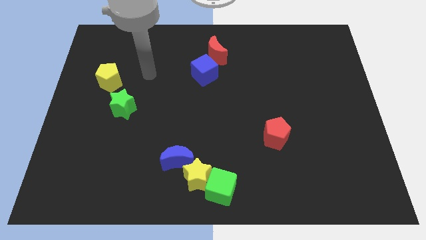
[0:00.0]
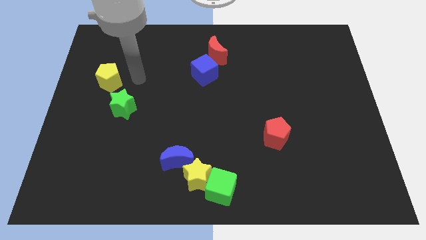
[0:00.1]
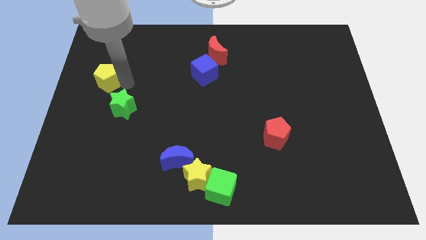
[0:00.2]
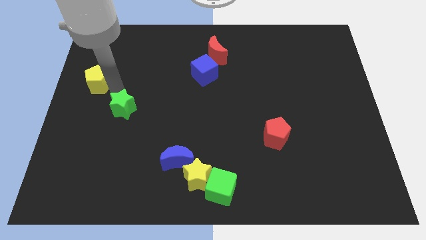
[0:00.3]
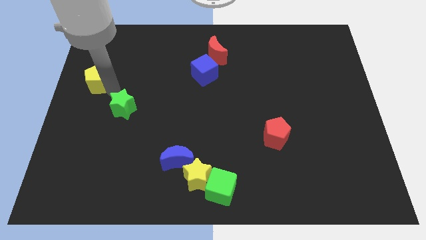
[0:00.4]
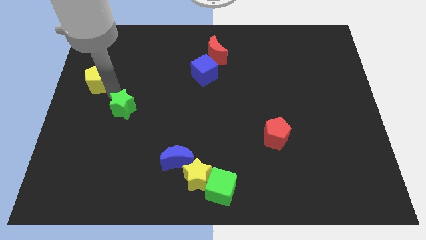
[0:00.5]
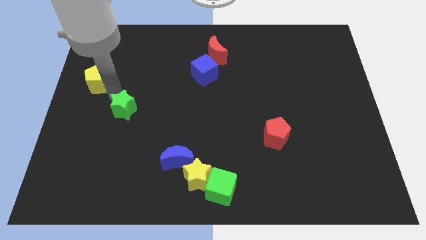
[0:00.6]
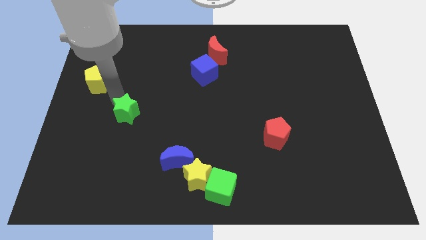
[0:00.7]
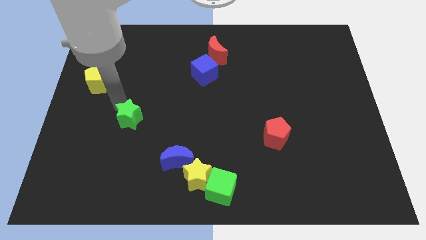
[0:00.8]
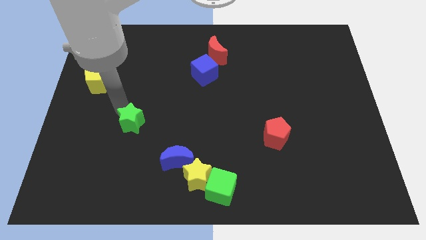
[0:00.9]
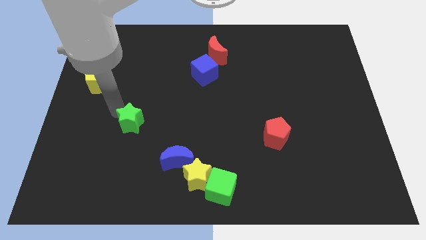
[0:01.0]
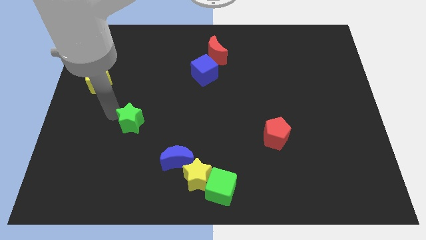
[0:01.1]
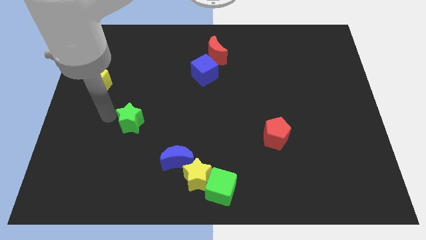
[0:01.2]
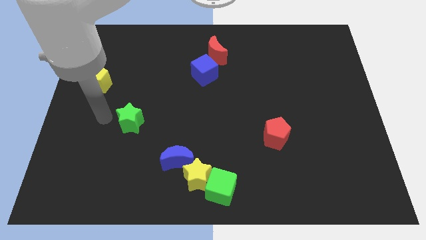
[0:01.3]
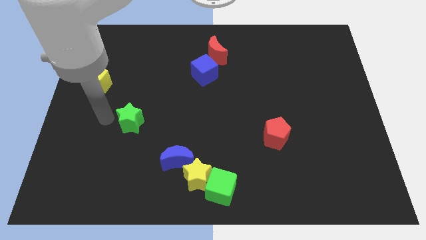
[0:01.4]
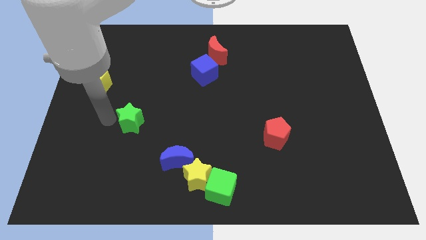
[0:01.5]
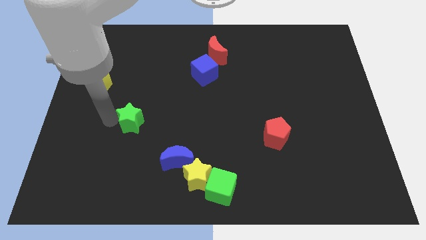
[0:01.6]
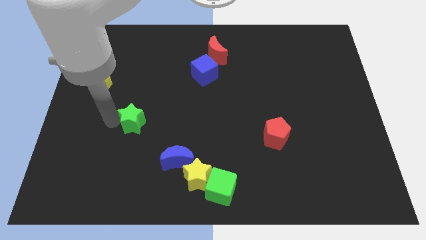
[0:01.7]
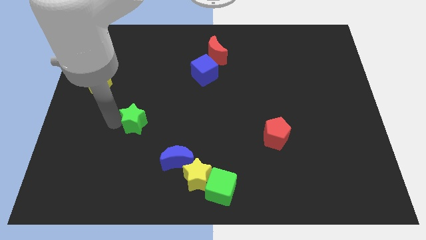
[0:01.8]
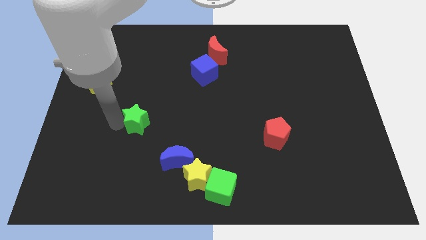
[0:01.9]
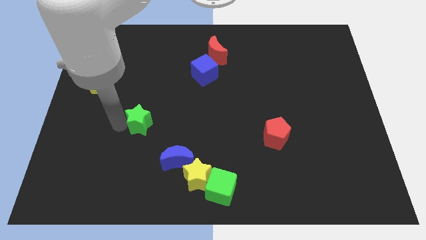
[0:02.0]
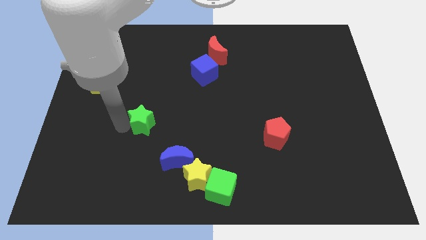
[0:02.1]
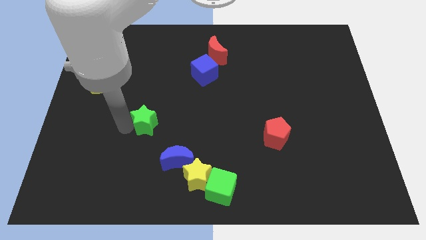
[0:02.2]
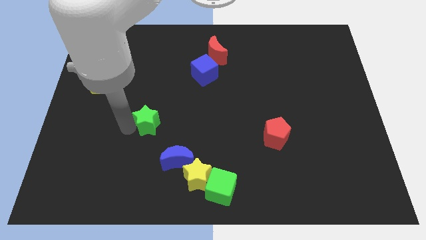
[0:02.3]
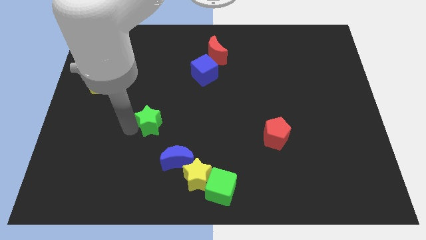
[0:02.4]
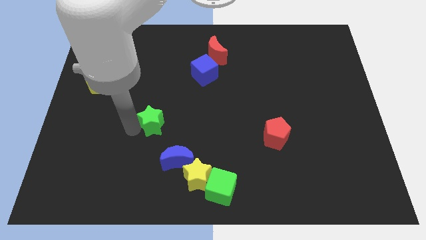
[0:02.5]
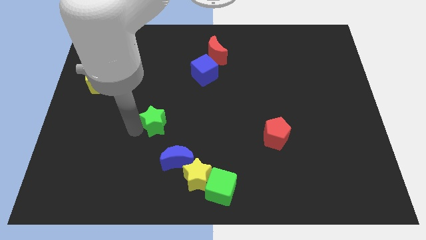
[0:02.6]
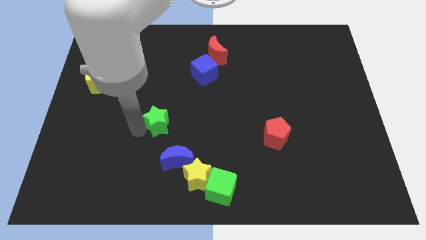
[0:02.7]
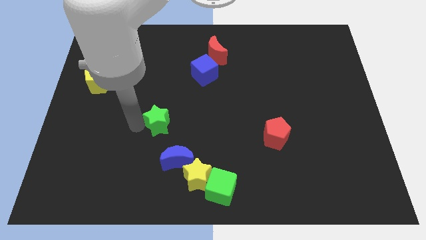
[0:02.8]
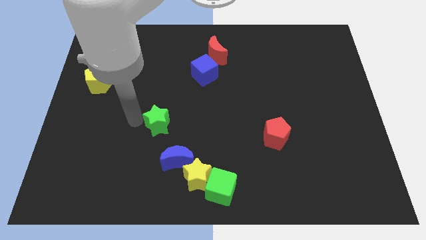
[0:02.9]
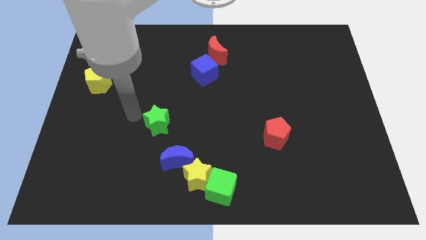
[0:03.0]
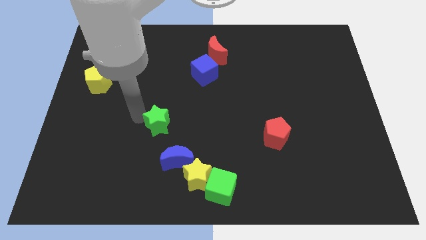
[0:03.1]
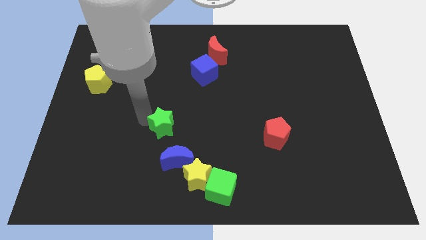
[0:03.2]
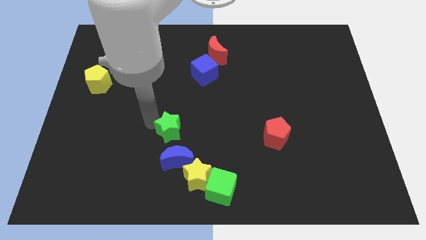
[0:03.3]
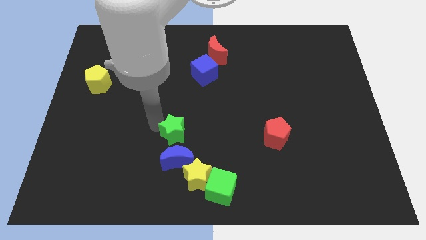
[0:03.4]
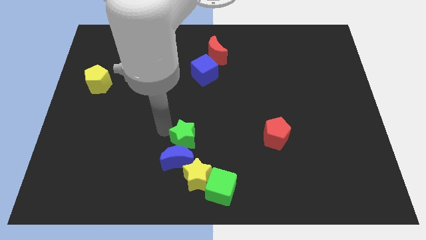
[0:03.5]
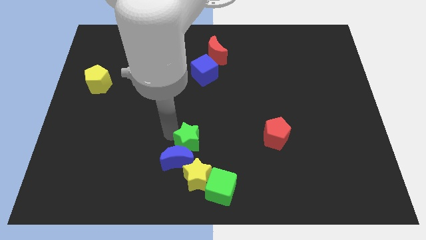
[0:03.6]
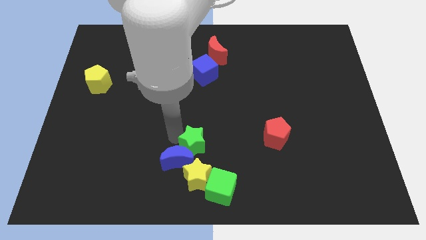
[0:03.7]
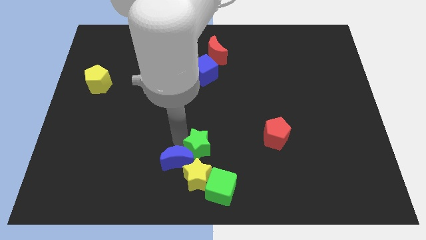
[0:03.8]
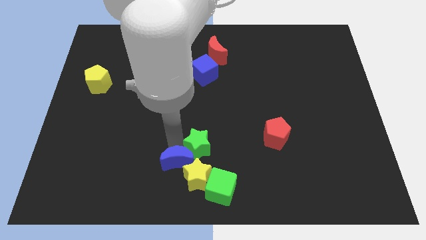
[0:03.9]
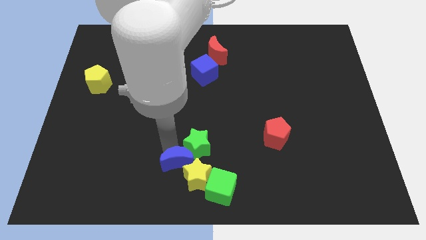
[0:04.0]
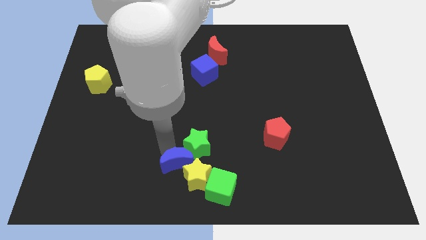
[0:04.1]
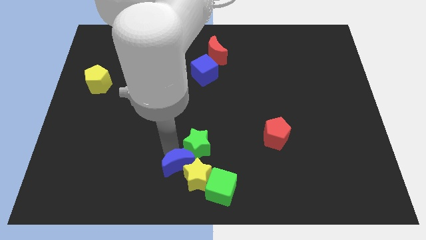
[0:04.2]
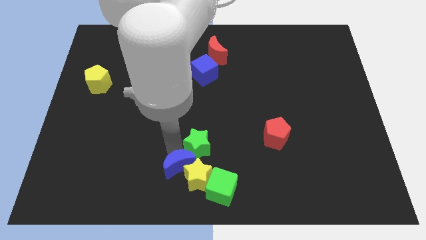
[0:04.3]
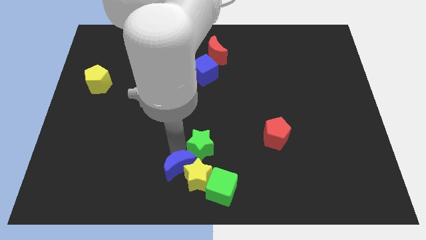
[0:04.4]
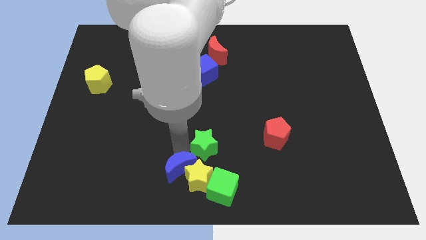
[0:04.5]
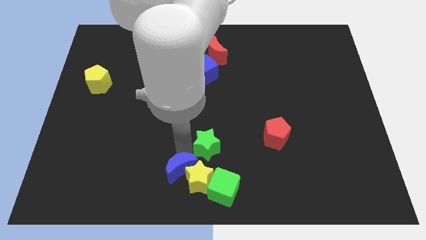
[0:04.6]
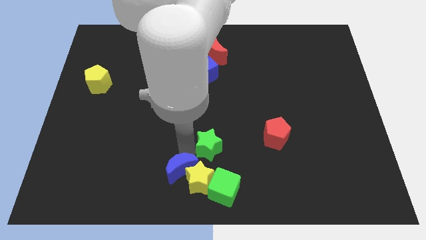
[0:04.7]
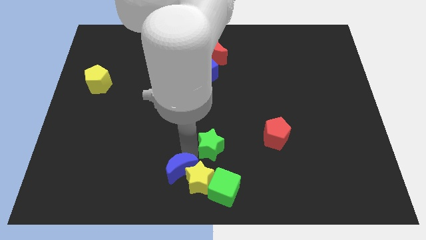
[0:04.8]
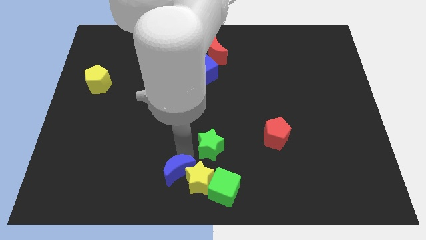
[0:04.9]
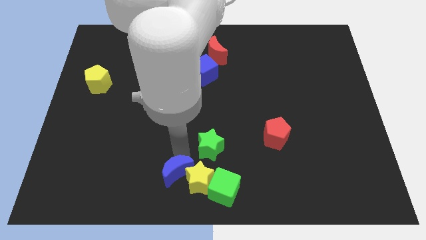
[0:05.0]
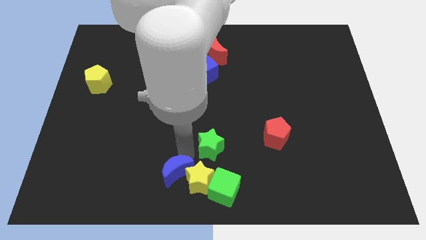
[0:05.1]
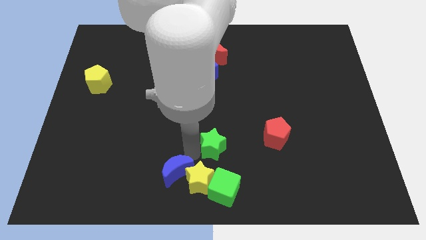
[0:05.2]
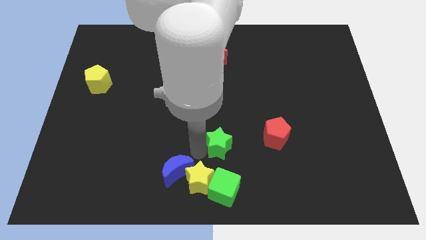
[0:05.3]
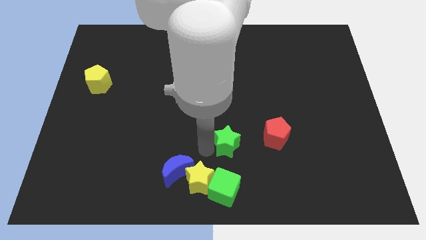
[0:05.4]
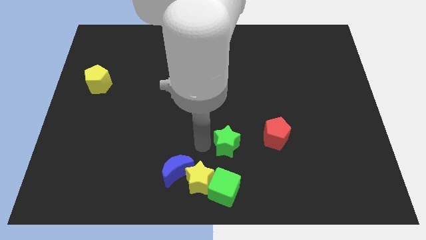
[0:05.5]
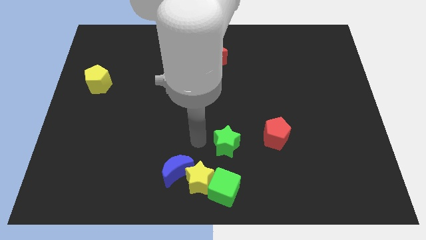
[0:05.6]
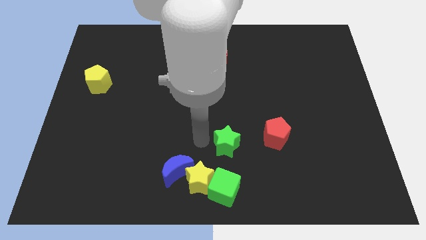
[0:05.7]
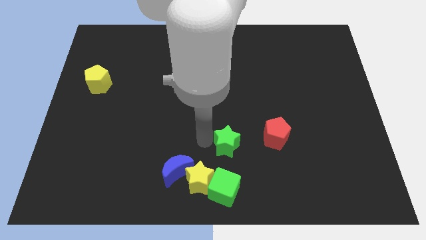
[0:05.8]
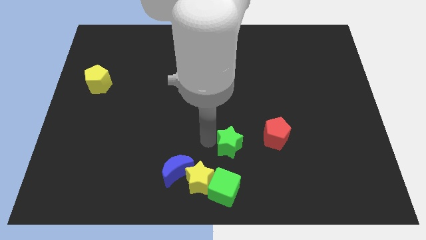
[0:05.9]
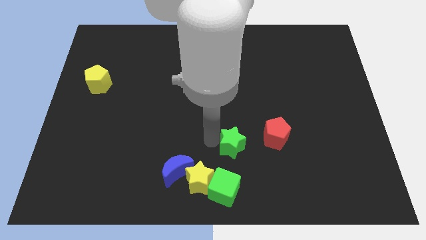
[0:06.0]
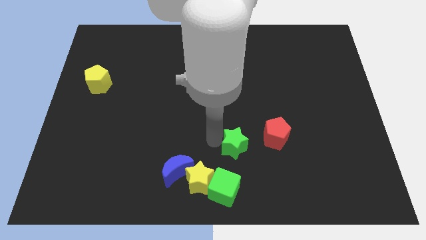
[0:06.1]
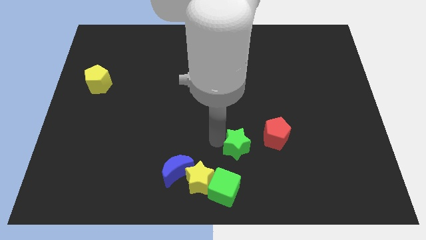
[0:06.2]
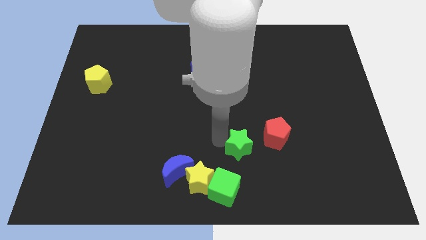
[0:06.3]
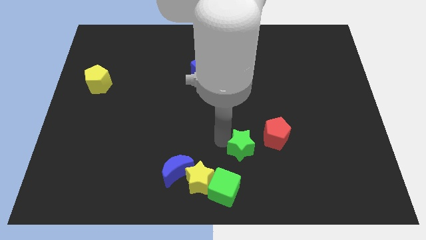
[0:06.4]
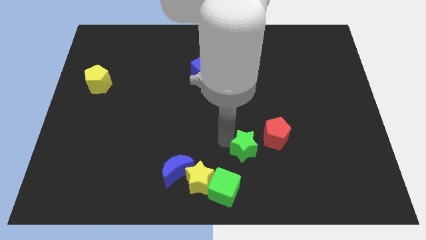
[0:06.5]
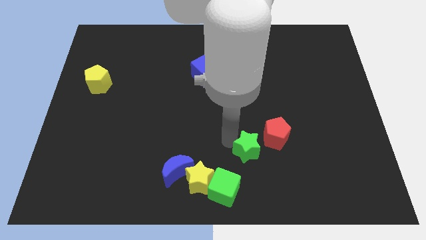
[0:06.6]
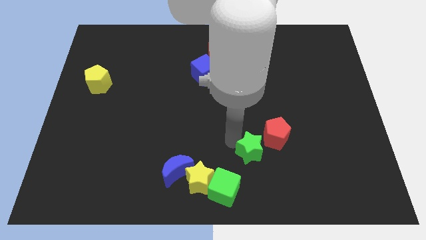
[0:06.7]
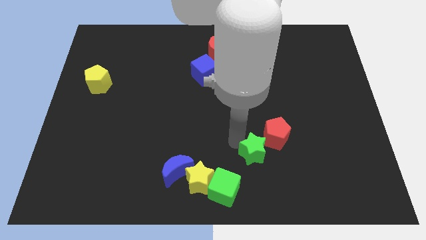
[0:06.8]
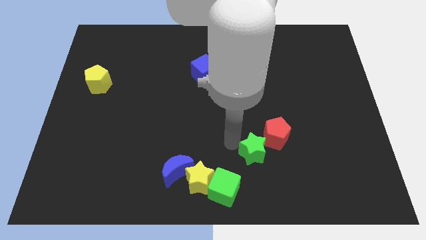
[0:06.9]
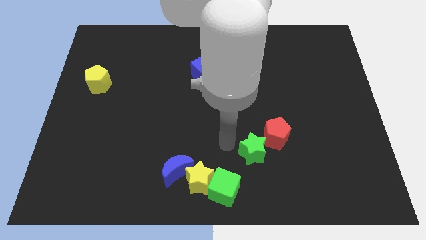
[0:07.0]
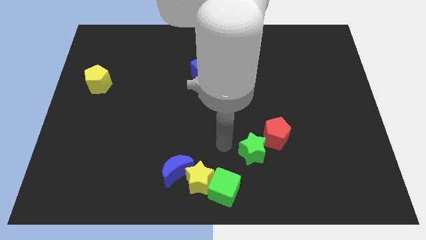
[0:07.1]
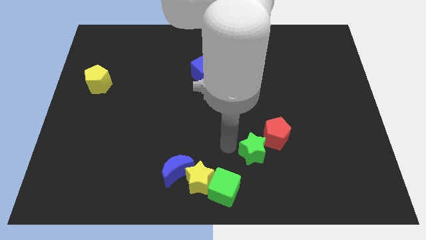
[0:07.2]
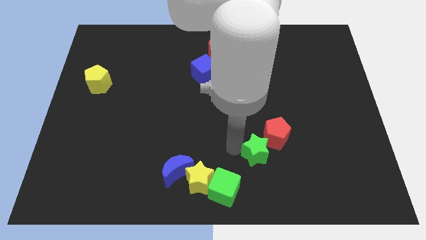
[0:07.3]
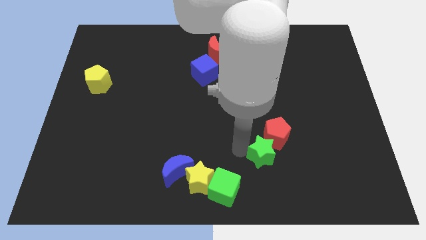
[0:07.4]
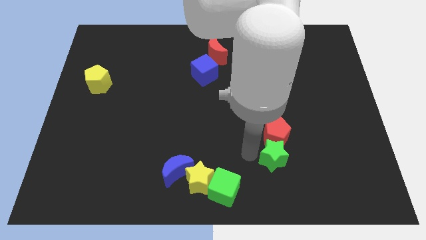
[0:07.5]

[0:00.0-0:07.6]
put the green star to the bottom right side of the red pentagon
